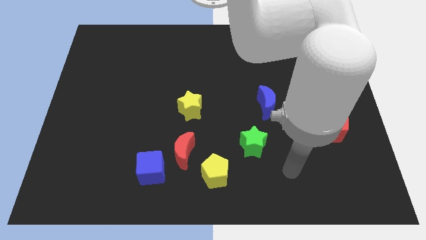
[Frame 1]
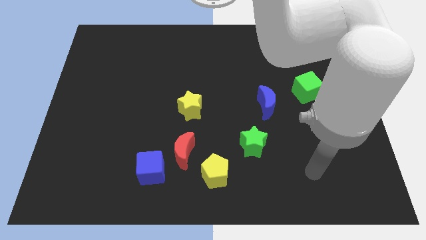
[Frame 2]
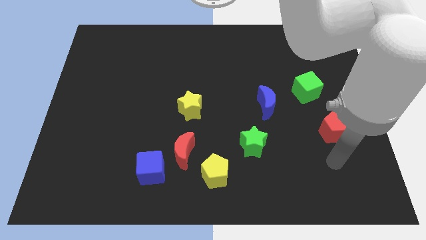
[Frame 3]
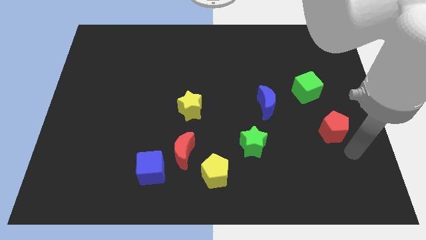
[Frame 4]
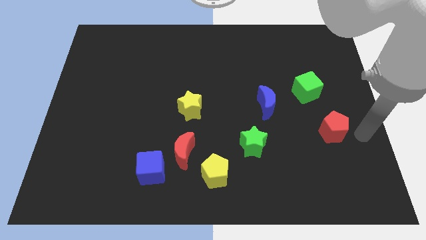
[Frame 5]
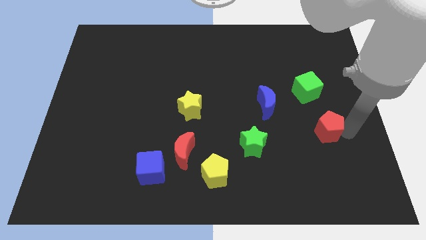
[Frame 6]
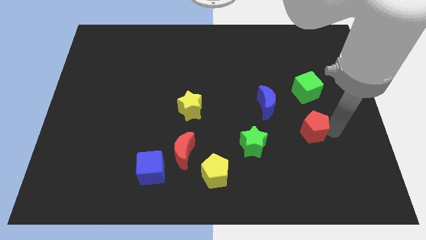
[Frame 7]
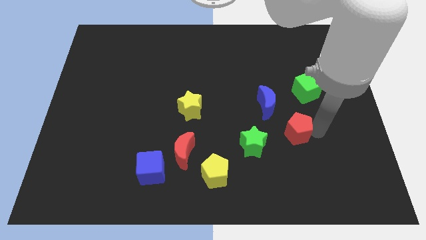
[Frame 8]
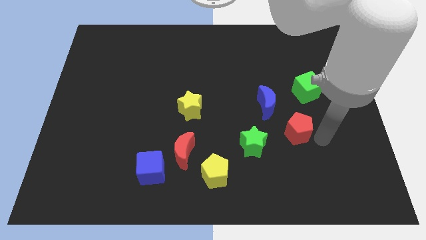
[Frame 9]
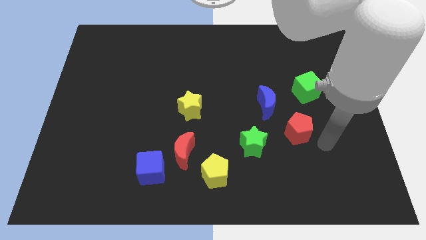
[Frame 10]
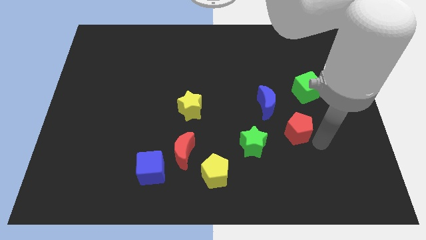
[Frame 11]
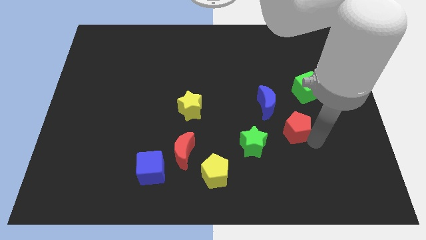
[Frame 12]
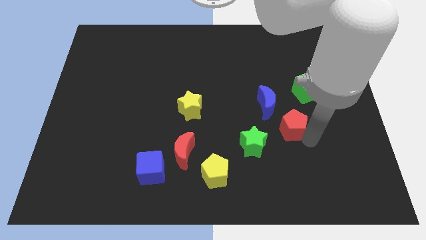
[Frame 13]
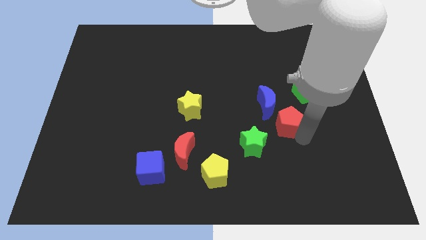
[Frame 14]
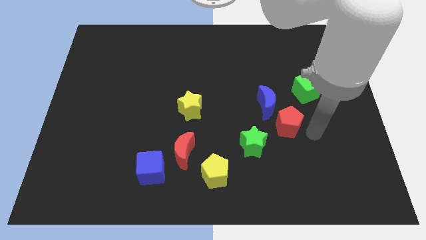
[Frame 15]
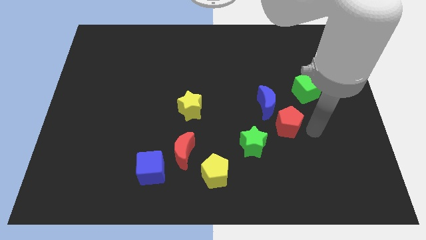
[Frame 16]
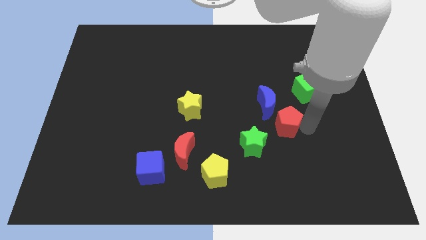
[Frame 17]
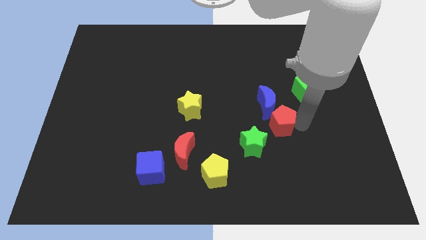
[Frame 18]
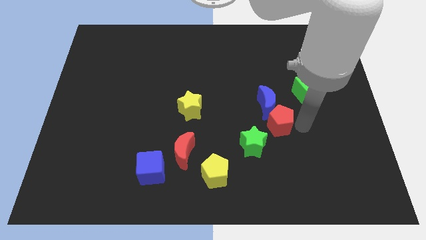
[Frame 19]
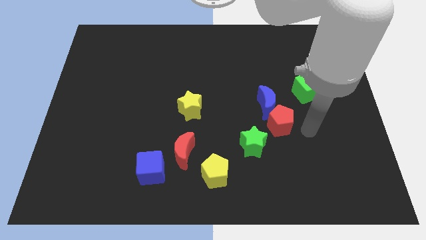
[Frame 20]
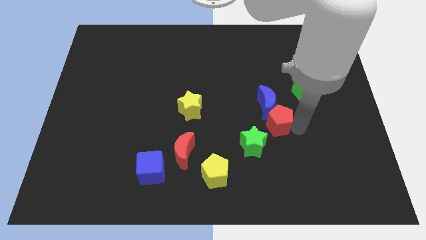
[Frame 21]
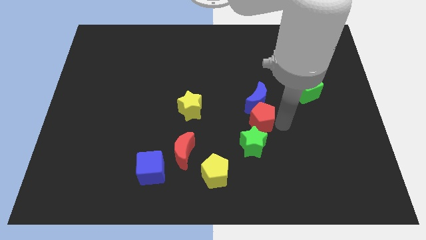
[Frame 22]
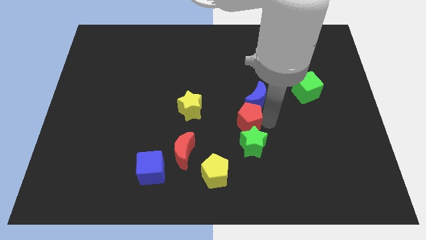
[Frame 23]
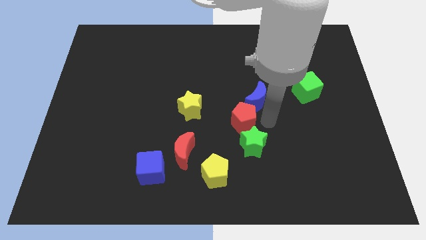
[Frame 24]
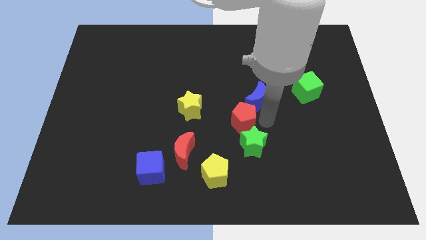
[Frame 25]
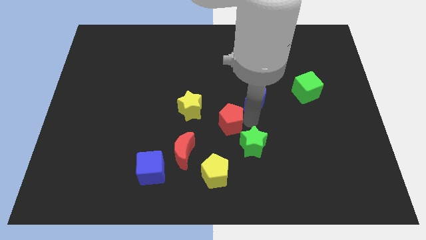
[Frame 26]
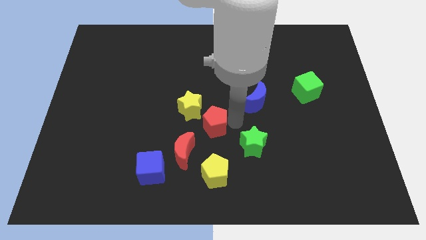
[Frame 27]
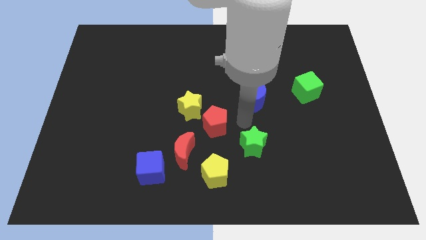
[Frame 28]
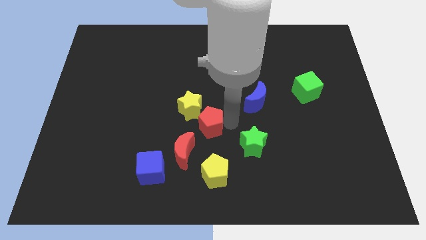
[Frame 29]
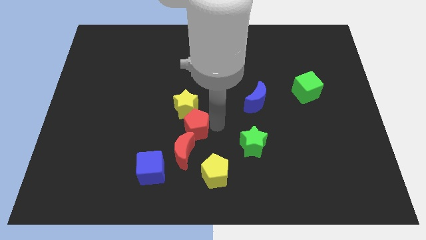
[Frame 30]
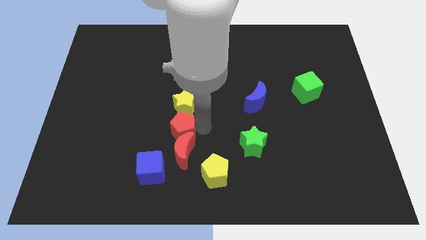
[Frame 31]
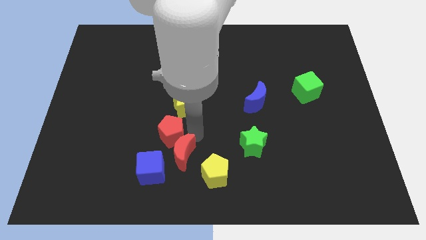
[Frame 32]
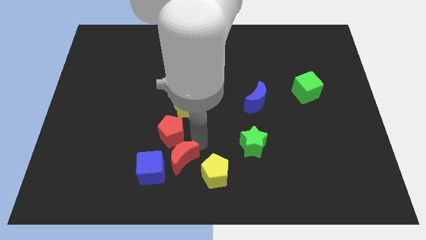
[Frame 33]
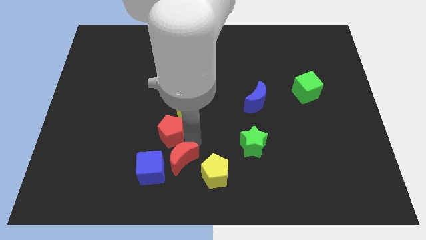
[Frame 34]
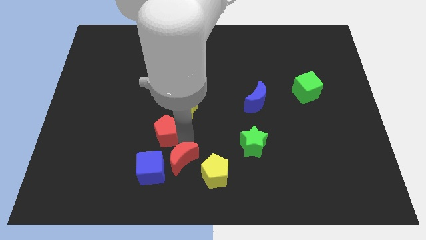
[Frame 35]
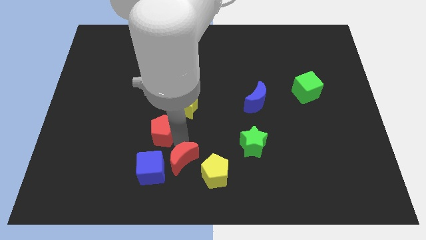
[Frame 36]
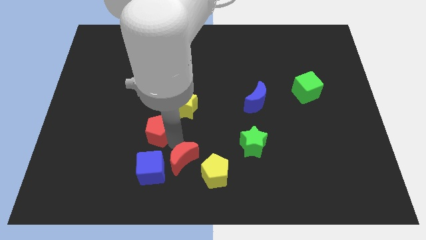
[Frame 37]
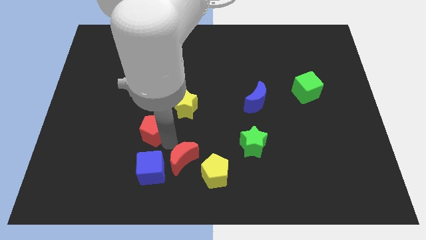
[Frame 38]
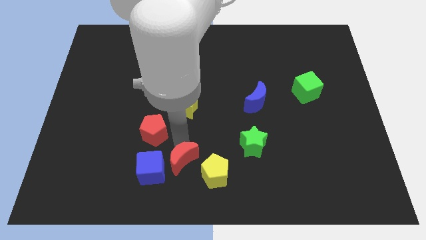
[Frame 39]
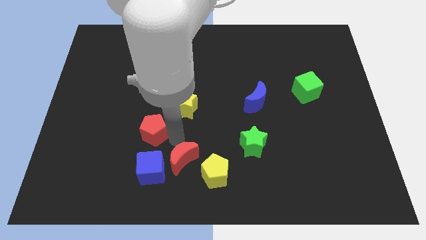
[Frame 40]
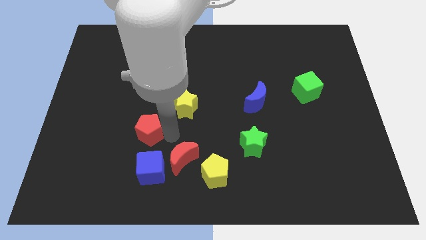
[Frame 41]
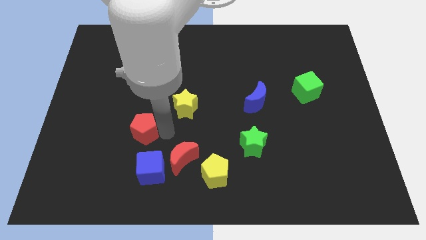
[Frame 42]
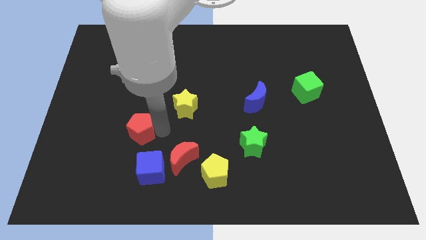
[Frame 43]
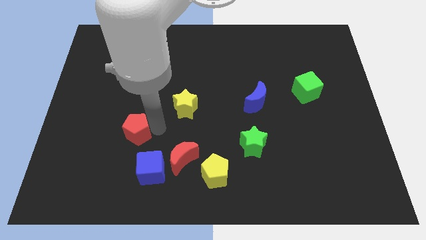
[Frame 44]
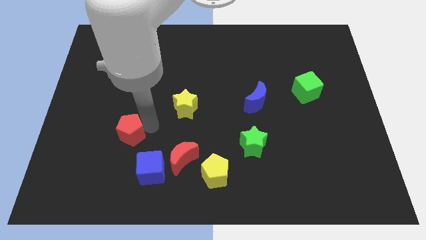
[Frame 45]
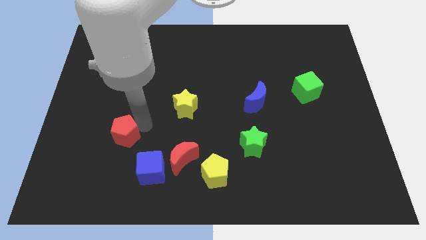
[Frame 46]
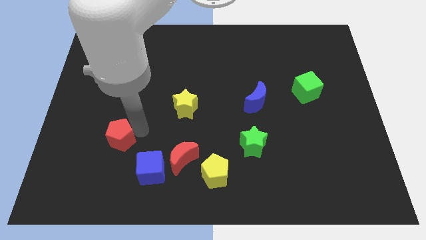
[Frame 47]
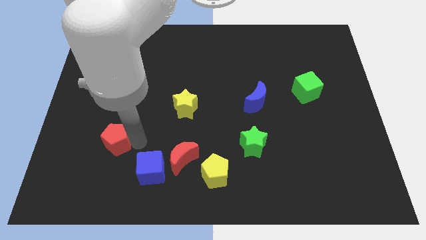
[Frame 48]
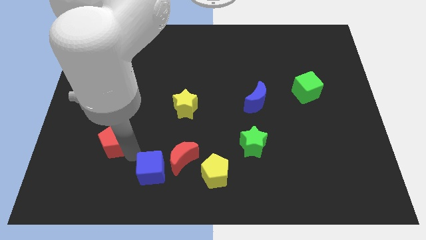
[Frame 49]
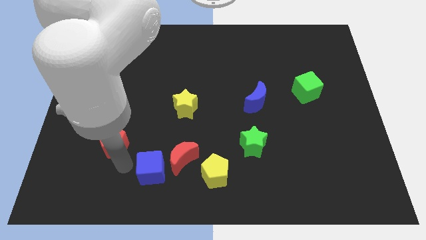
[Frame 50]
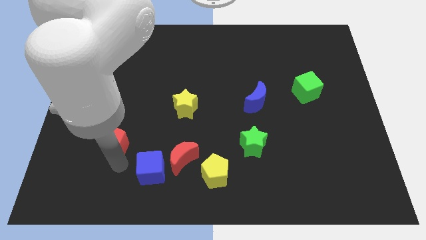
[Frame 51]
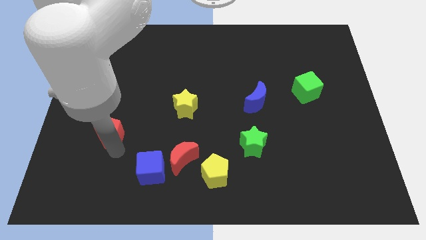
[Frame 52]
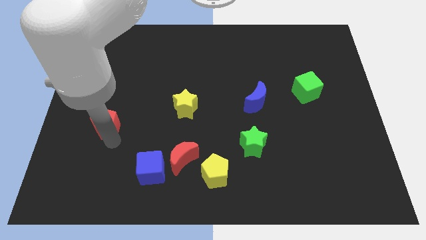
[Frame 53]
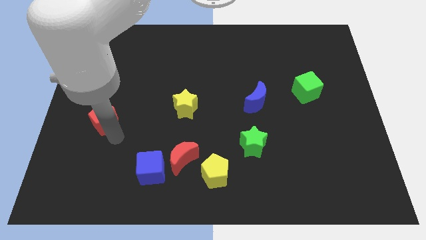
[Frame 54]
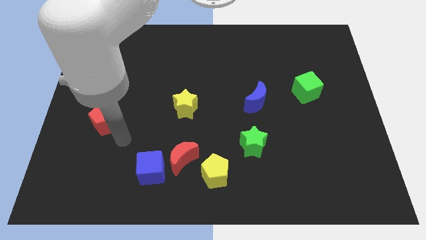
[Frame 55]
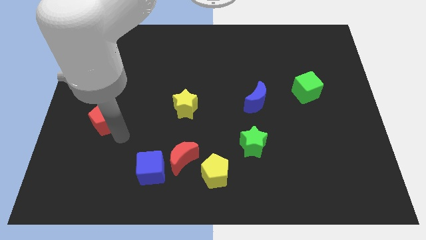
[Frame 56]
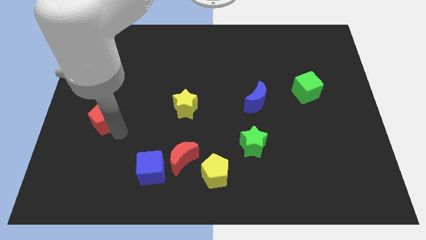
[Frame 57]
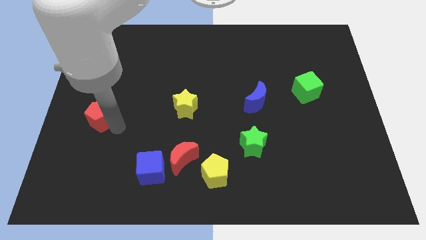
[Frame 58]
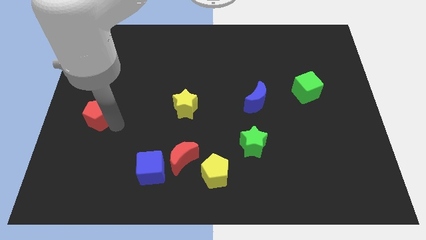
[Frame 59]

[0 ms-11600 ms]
put the red pentagon to the left side
